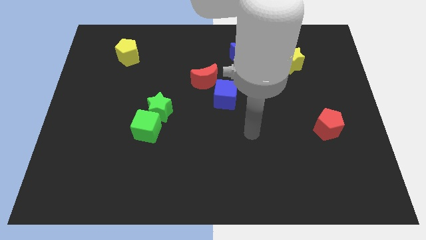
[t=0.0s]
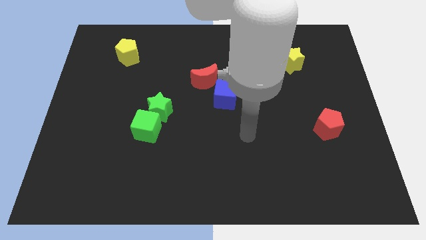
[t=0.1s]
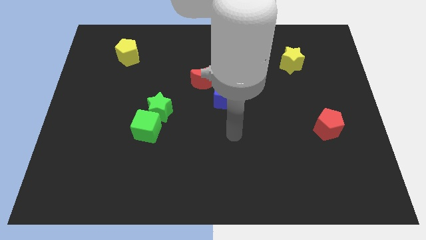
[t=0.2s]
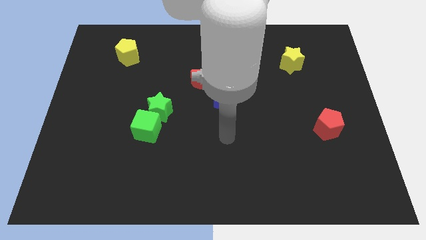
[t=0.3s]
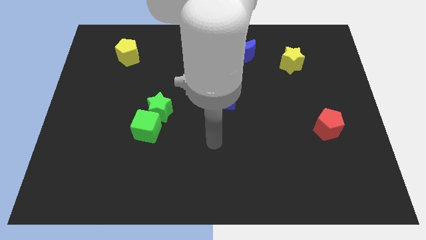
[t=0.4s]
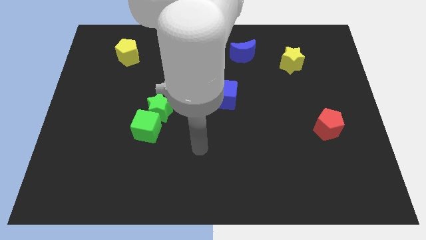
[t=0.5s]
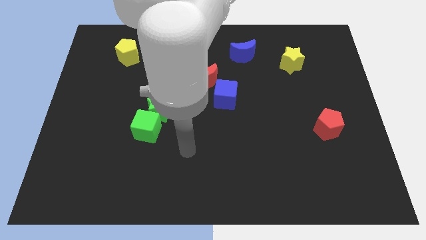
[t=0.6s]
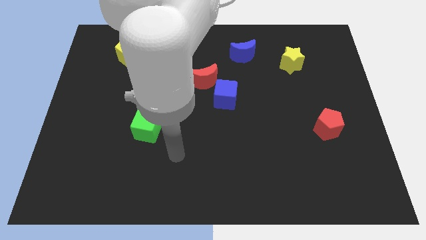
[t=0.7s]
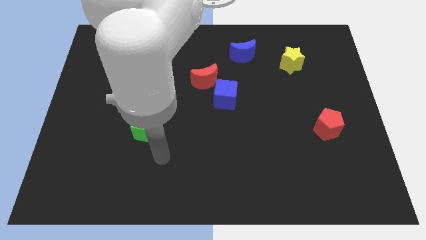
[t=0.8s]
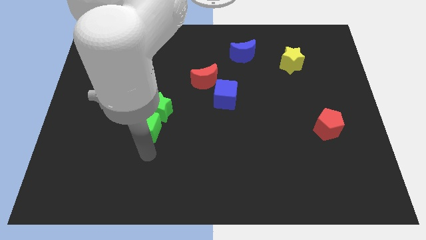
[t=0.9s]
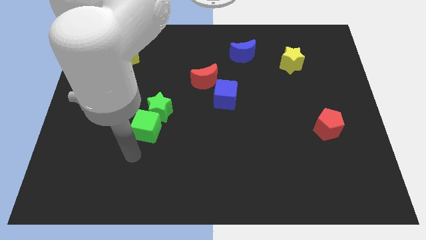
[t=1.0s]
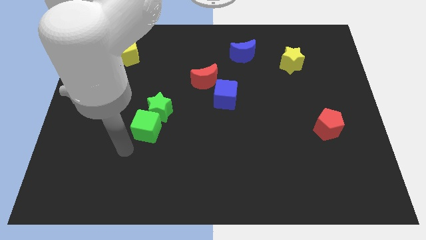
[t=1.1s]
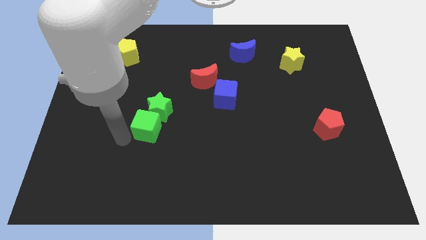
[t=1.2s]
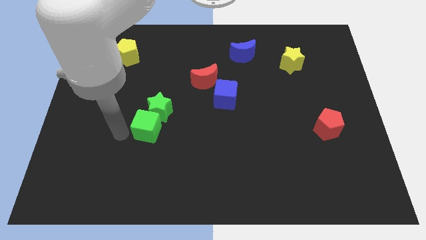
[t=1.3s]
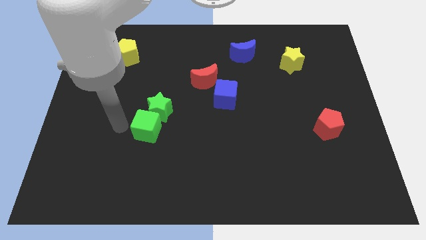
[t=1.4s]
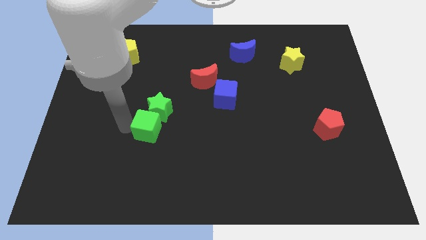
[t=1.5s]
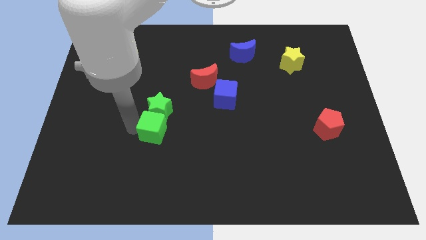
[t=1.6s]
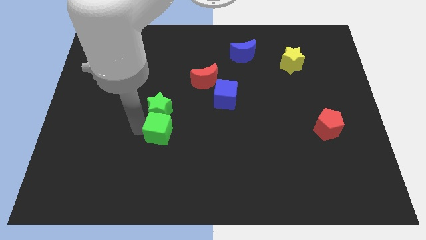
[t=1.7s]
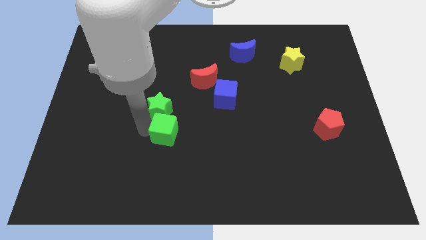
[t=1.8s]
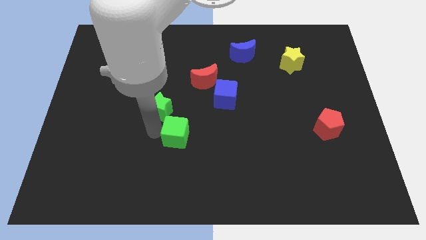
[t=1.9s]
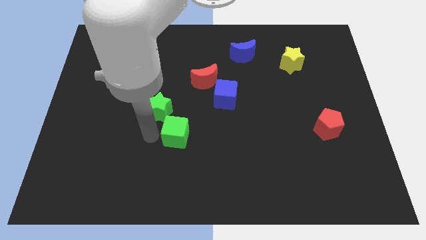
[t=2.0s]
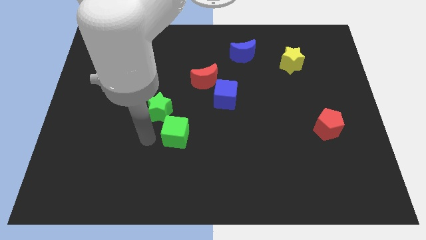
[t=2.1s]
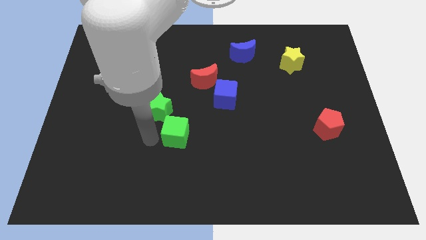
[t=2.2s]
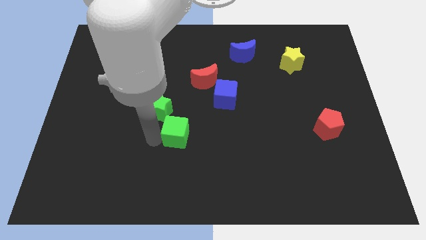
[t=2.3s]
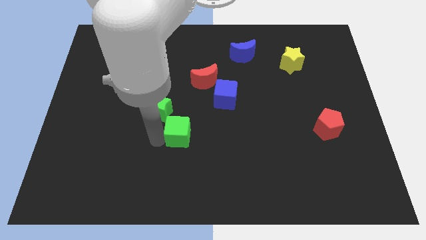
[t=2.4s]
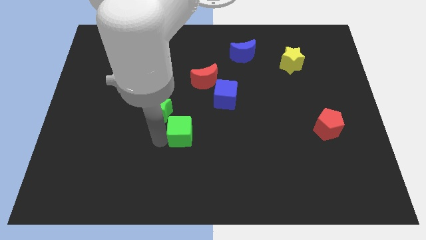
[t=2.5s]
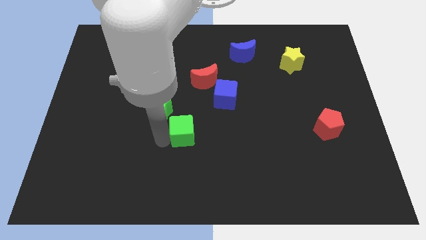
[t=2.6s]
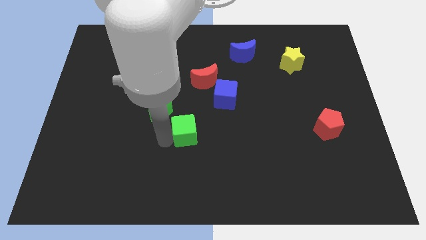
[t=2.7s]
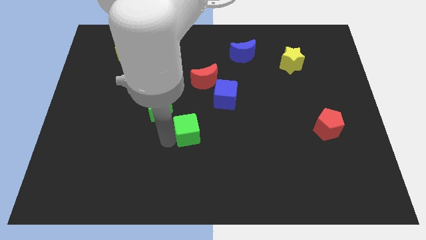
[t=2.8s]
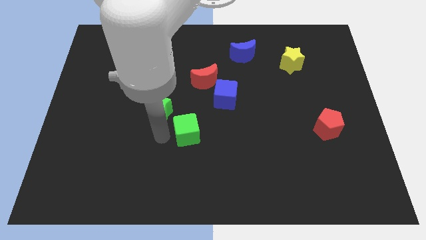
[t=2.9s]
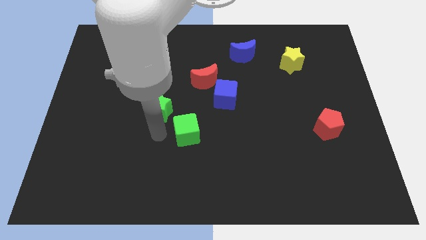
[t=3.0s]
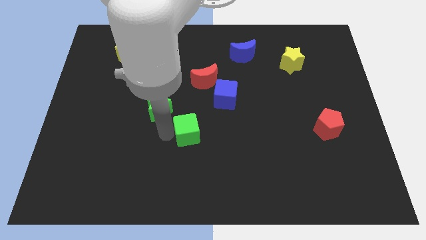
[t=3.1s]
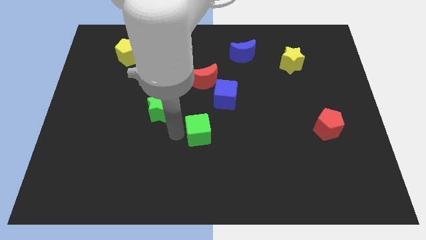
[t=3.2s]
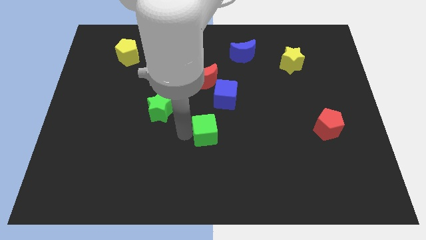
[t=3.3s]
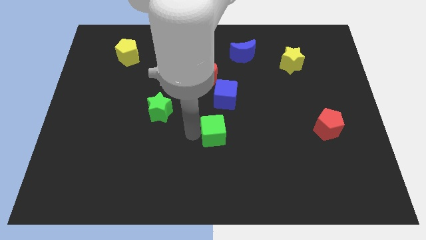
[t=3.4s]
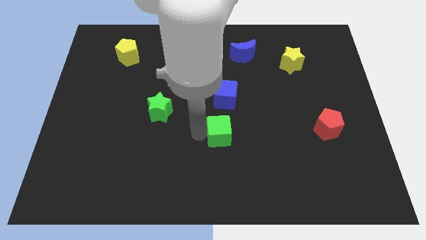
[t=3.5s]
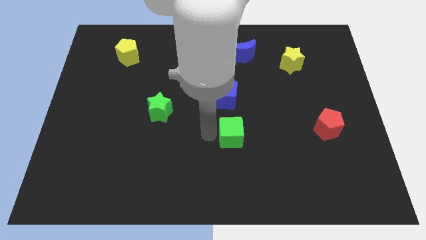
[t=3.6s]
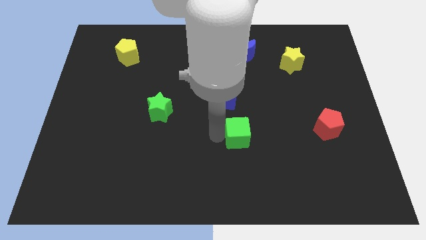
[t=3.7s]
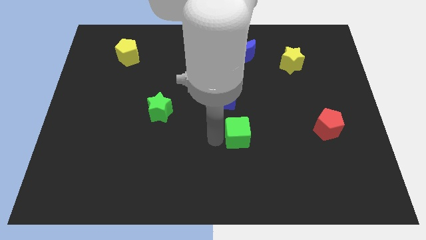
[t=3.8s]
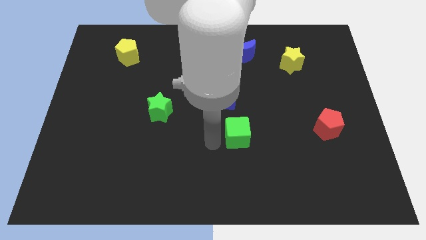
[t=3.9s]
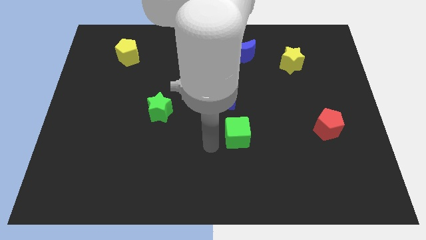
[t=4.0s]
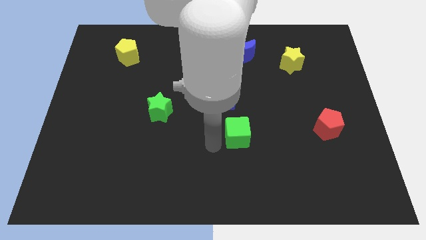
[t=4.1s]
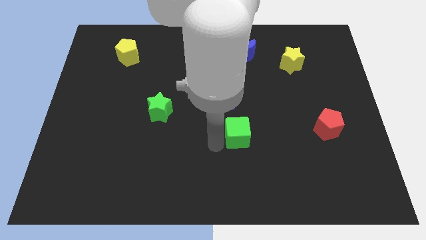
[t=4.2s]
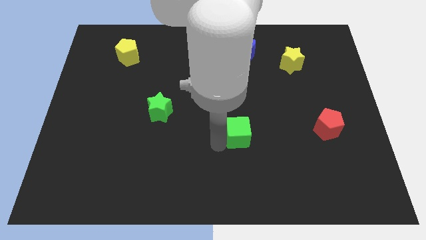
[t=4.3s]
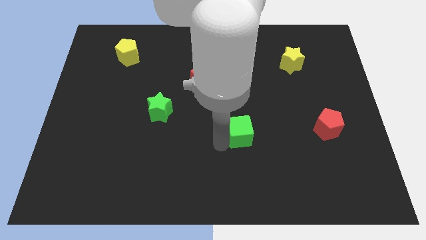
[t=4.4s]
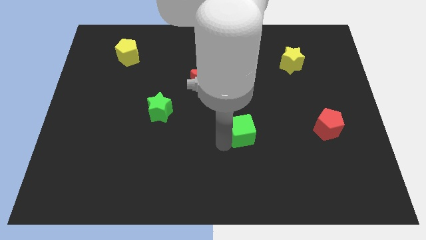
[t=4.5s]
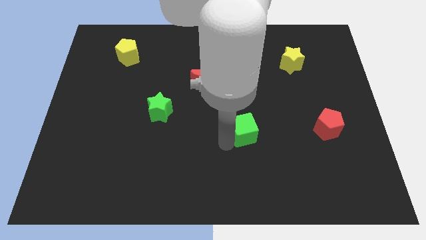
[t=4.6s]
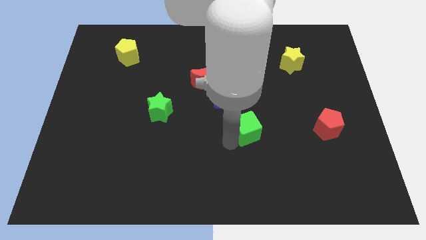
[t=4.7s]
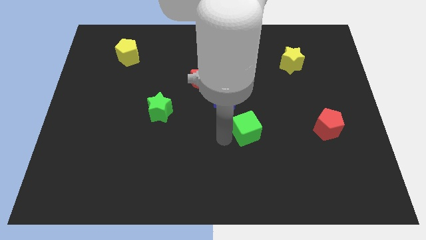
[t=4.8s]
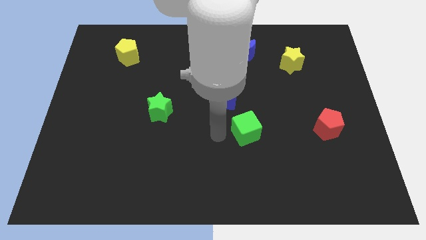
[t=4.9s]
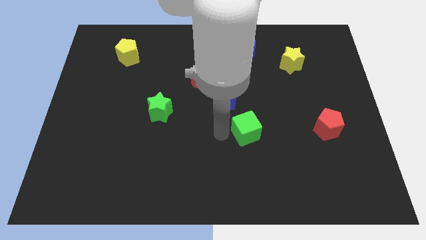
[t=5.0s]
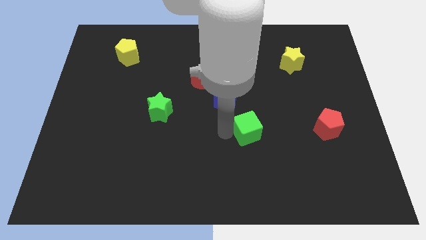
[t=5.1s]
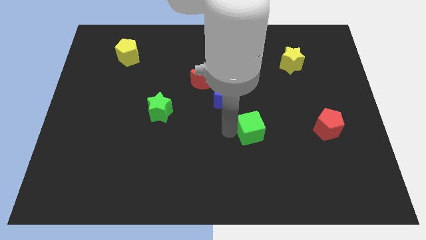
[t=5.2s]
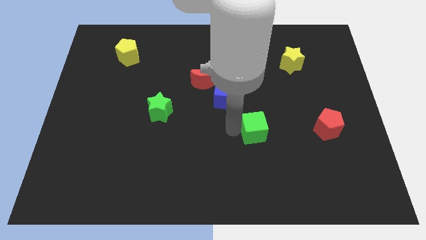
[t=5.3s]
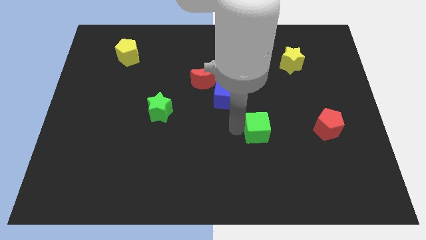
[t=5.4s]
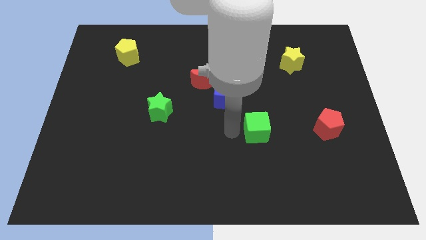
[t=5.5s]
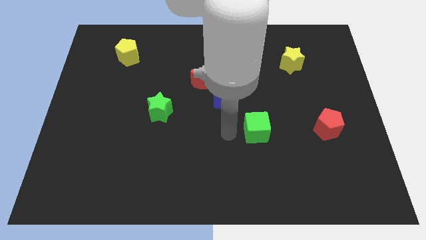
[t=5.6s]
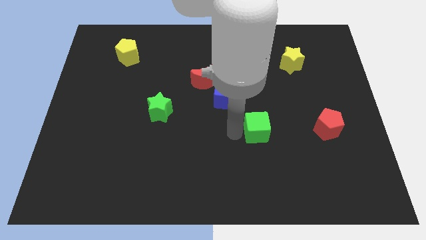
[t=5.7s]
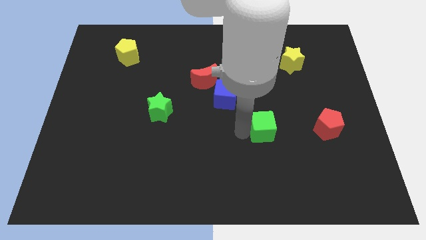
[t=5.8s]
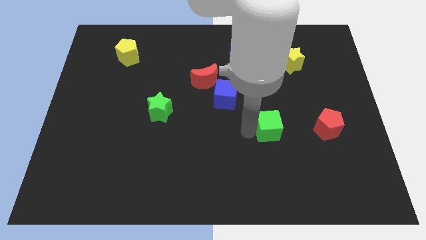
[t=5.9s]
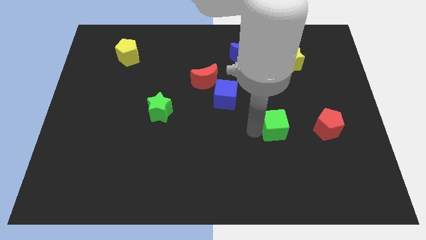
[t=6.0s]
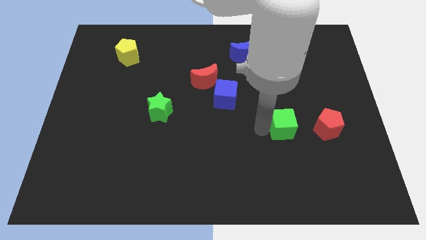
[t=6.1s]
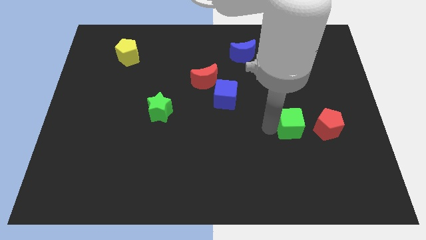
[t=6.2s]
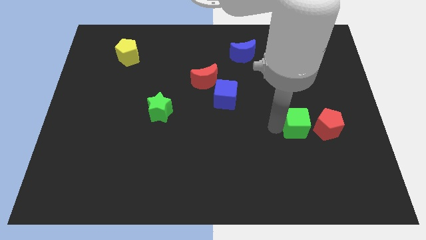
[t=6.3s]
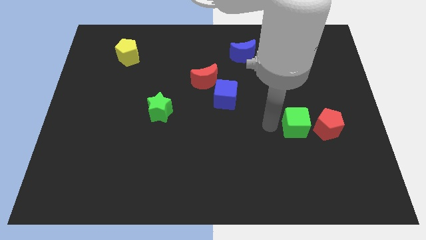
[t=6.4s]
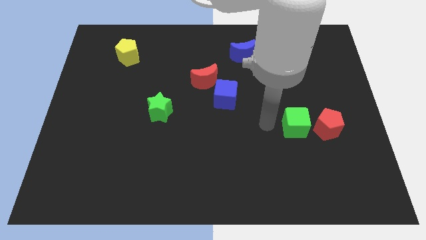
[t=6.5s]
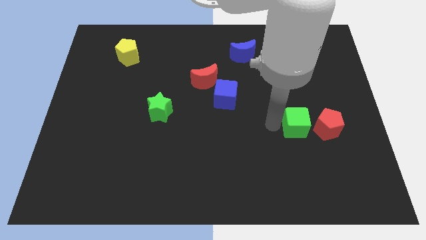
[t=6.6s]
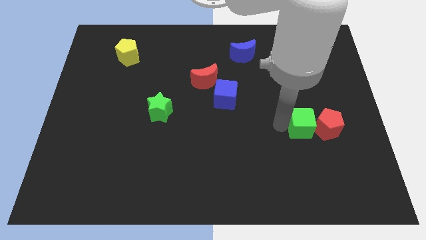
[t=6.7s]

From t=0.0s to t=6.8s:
slide the green cube close to the red pentagon

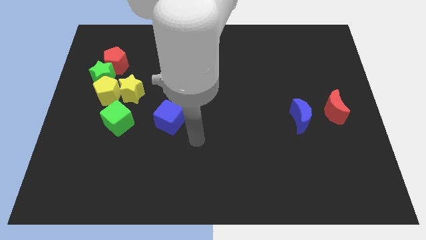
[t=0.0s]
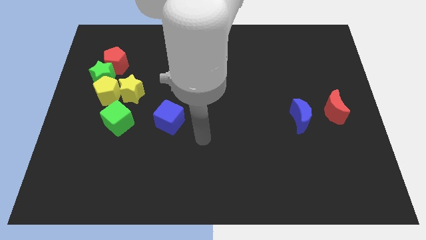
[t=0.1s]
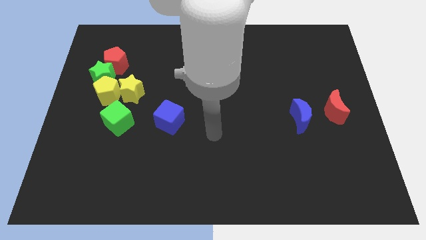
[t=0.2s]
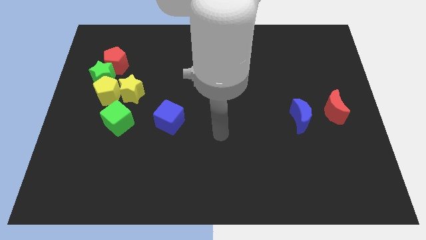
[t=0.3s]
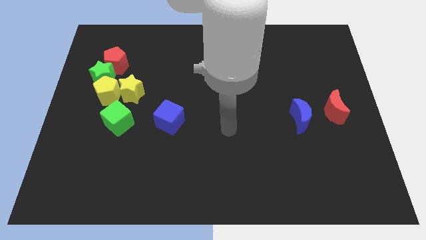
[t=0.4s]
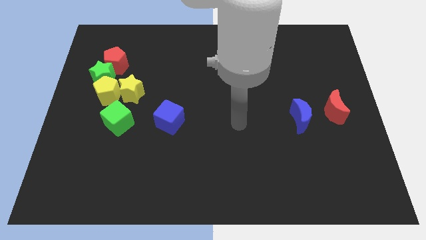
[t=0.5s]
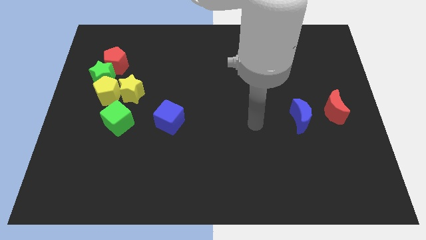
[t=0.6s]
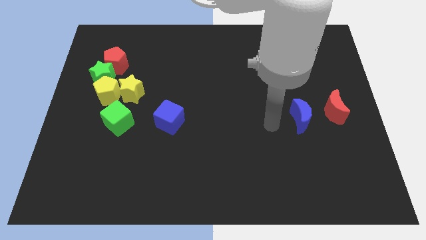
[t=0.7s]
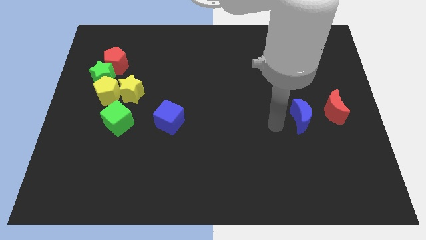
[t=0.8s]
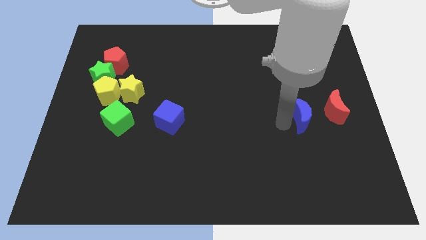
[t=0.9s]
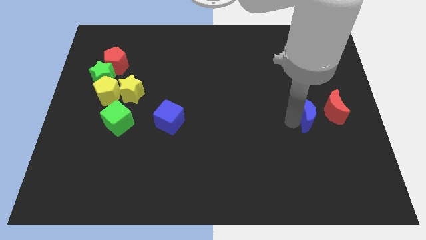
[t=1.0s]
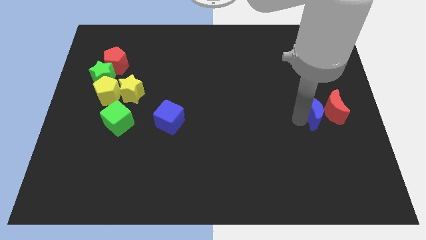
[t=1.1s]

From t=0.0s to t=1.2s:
move the blue moon towards the red moon
